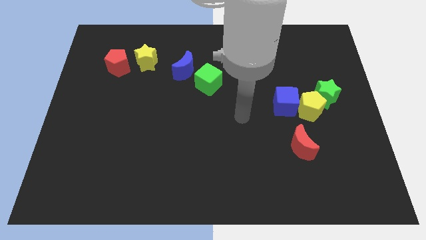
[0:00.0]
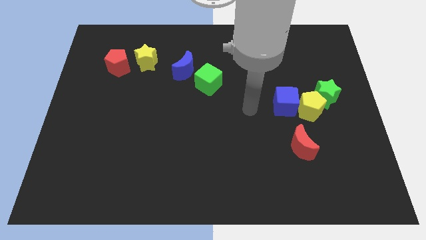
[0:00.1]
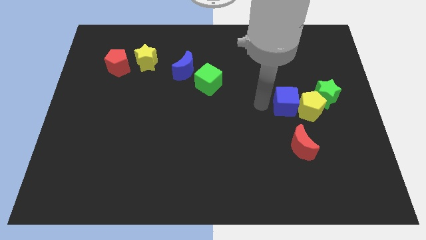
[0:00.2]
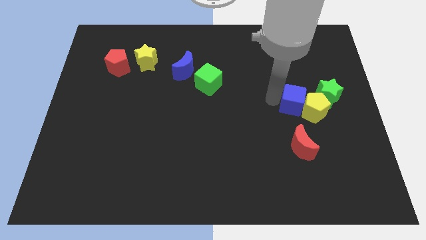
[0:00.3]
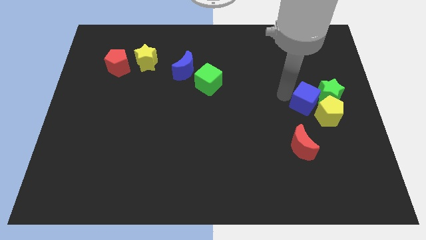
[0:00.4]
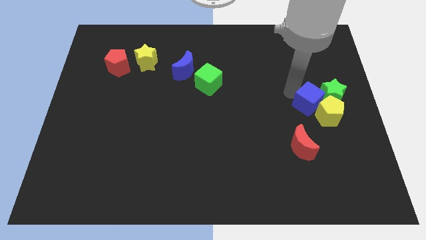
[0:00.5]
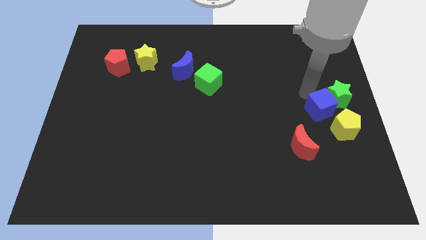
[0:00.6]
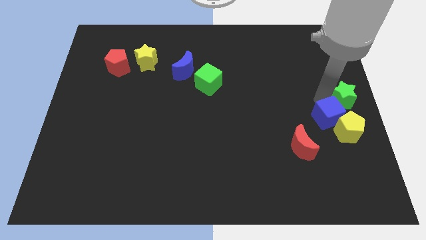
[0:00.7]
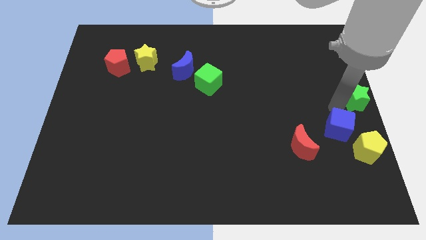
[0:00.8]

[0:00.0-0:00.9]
move the yellow pentagon away from the green star and blue cube

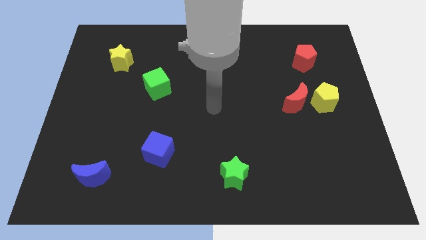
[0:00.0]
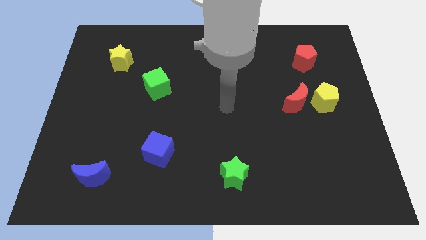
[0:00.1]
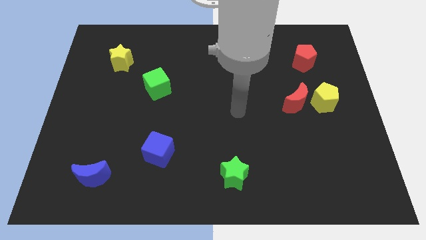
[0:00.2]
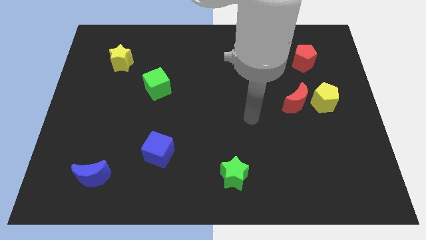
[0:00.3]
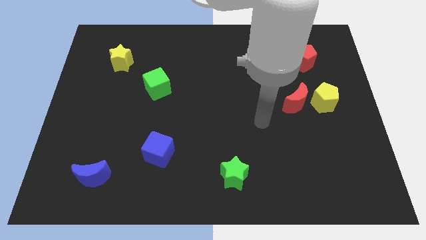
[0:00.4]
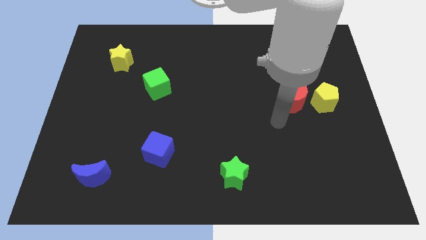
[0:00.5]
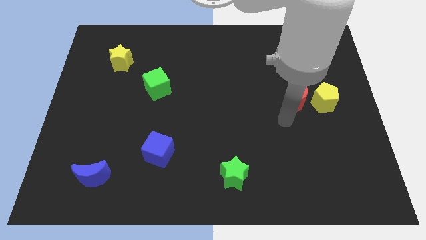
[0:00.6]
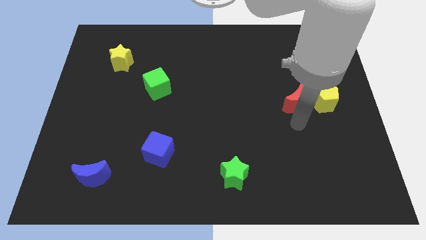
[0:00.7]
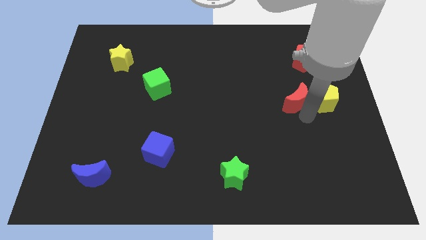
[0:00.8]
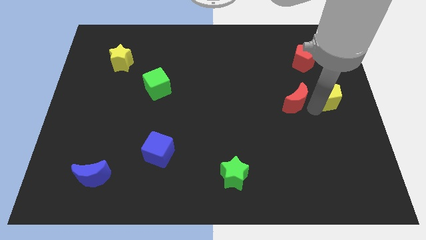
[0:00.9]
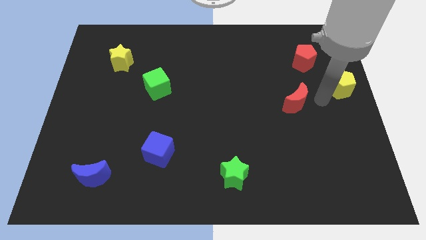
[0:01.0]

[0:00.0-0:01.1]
move the red moon away from the yellow pentagon

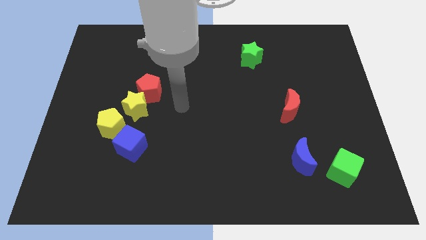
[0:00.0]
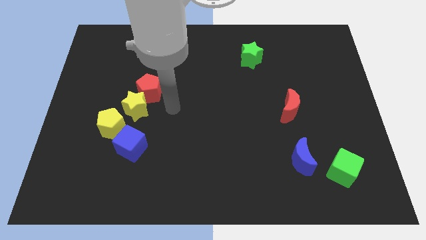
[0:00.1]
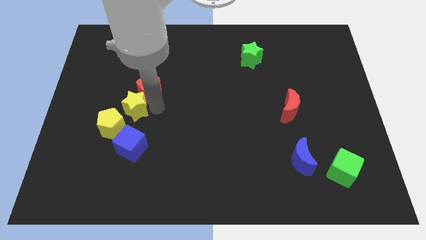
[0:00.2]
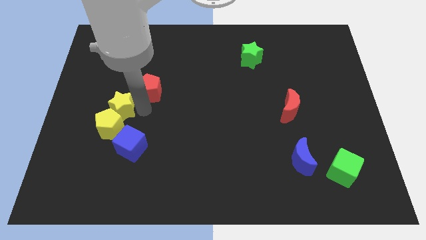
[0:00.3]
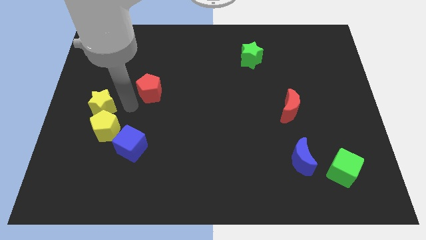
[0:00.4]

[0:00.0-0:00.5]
move the red pentagon away from the yellow star

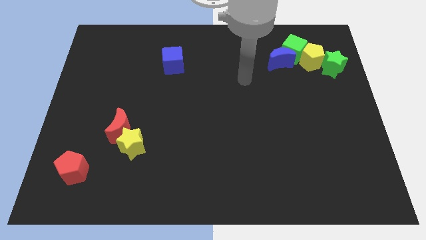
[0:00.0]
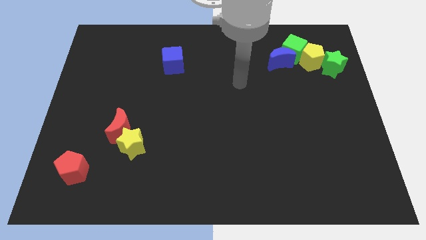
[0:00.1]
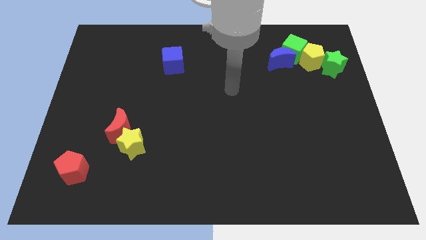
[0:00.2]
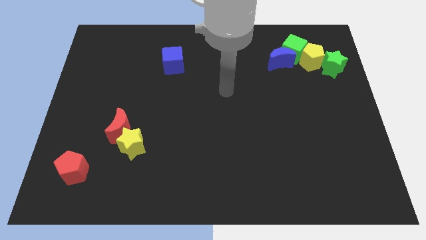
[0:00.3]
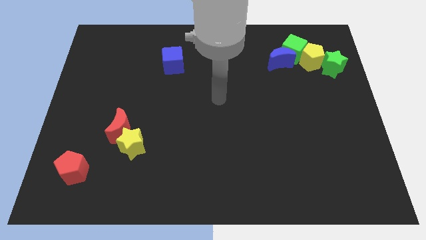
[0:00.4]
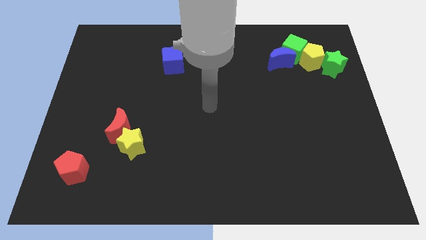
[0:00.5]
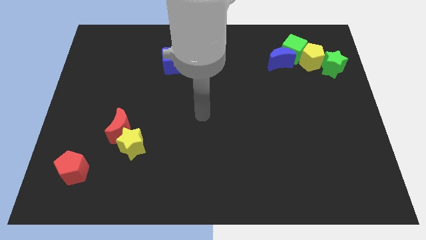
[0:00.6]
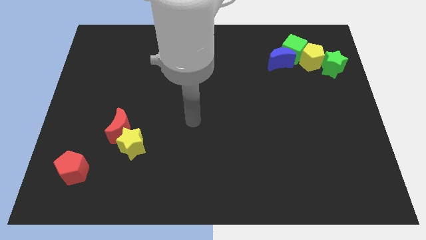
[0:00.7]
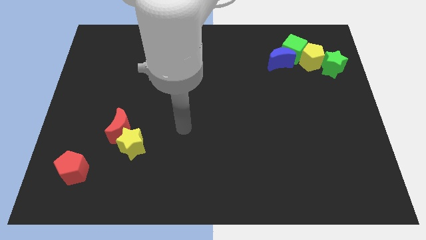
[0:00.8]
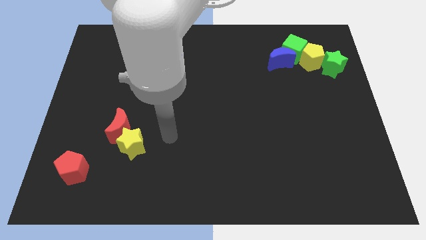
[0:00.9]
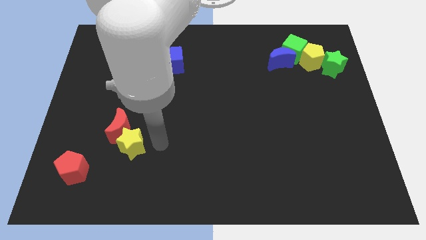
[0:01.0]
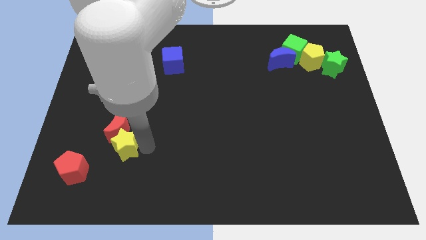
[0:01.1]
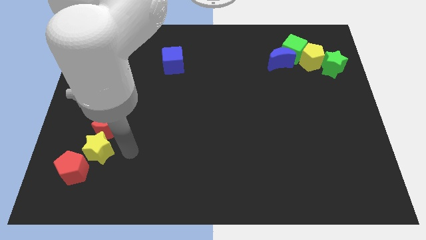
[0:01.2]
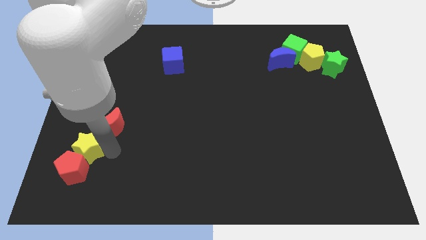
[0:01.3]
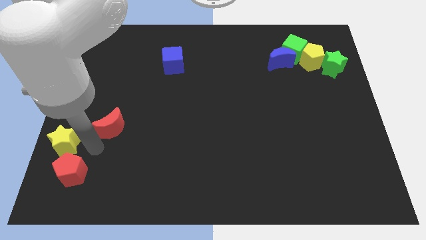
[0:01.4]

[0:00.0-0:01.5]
pull the red moon apart from the yellow star

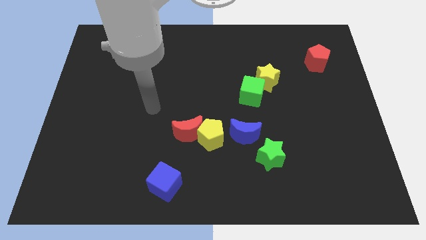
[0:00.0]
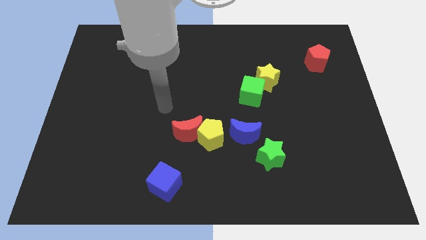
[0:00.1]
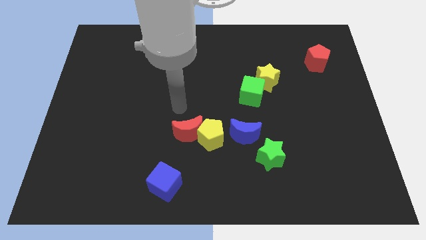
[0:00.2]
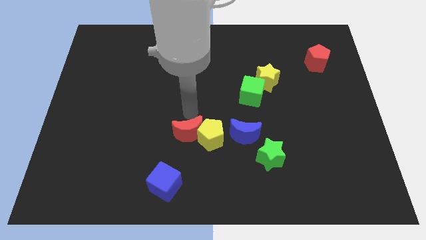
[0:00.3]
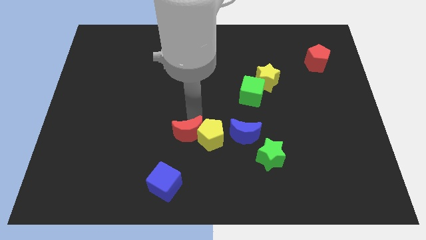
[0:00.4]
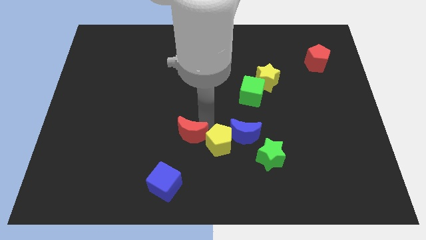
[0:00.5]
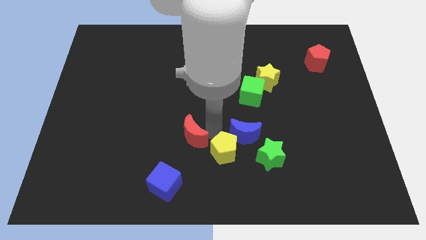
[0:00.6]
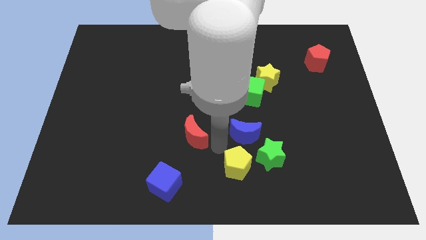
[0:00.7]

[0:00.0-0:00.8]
pull the red moon apart from the yellow pentagon

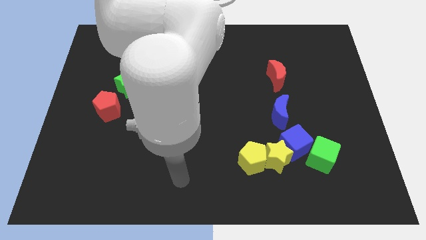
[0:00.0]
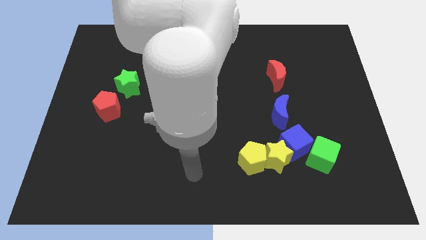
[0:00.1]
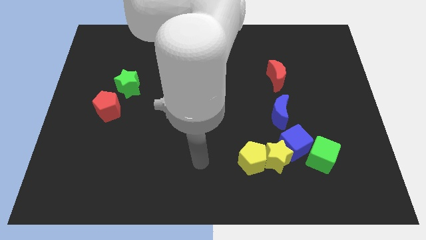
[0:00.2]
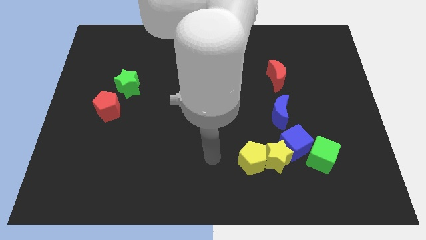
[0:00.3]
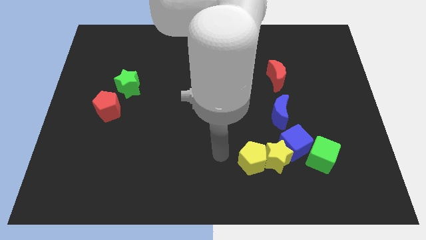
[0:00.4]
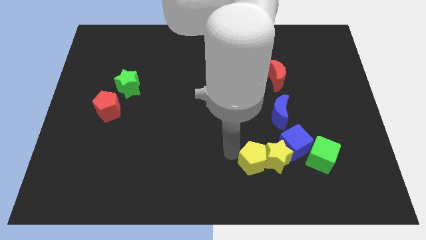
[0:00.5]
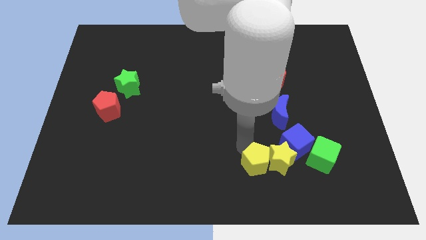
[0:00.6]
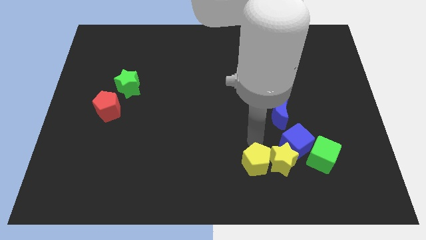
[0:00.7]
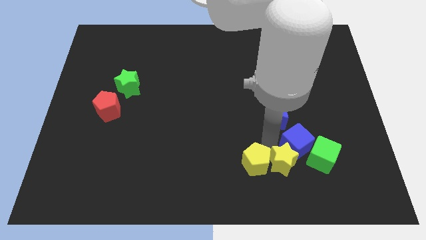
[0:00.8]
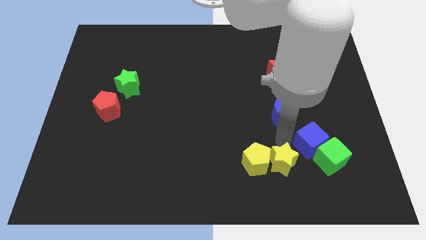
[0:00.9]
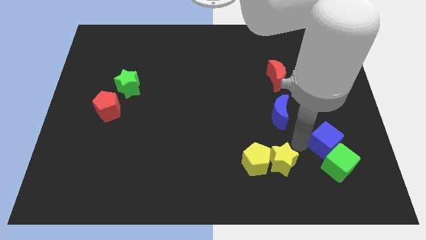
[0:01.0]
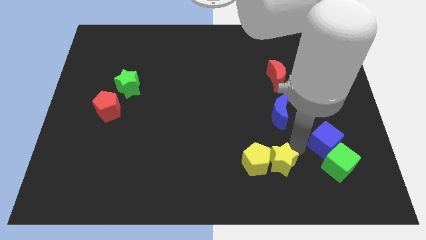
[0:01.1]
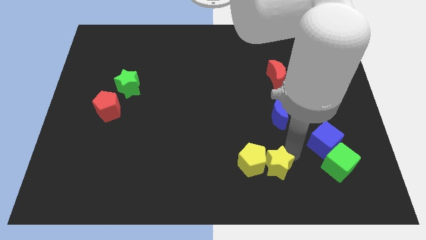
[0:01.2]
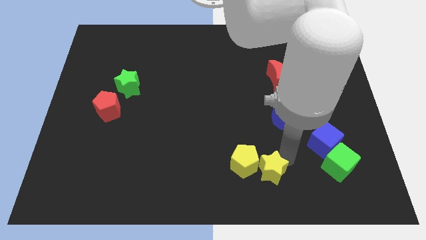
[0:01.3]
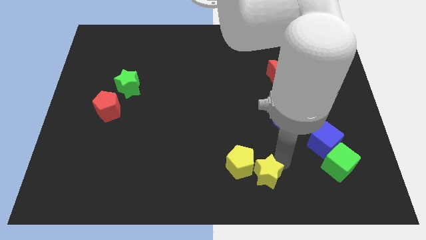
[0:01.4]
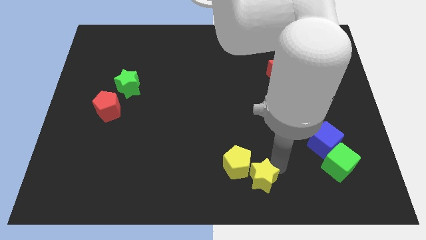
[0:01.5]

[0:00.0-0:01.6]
move the yellow star away from the group

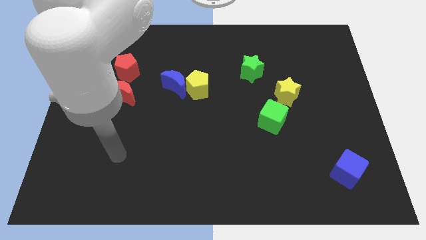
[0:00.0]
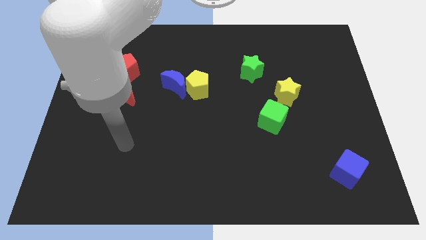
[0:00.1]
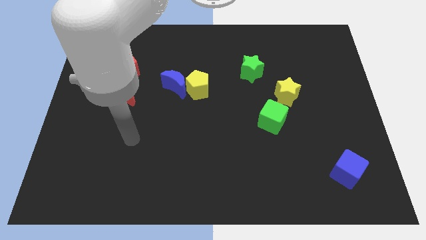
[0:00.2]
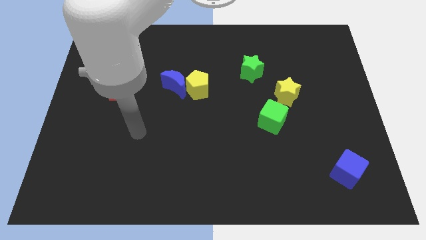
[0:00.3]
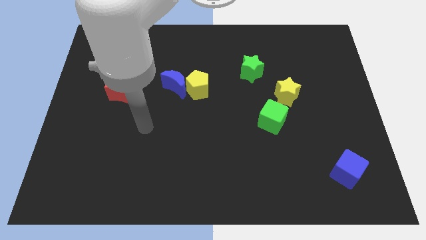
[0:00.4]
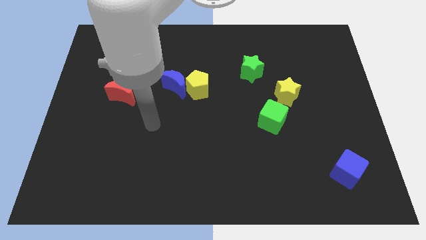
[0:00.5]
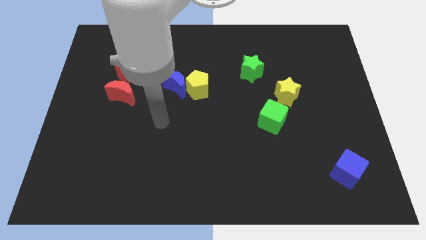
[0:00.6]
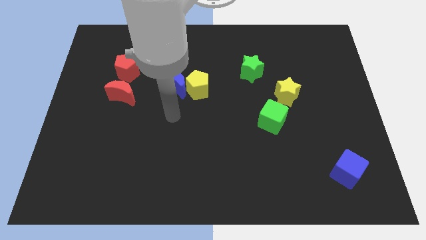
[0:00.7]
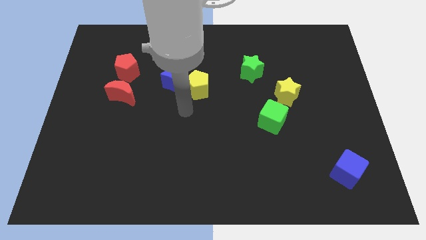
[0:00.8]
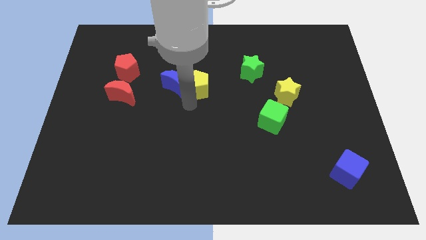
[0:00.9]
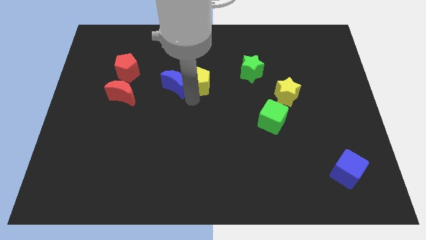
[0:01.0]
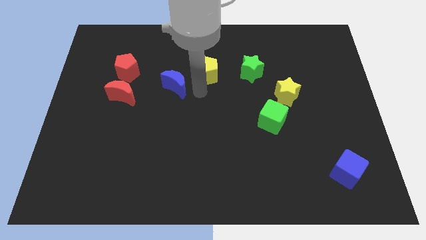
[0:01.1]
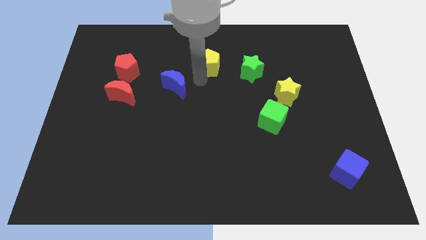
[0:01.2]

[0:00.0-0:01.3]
pull the blue moon apart from the yellow pentagon

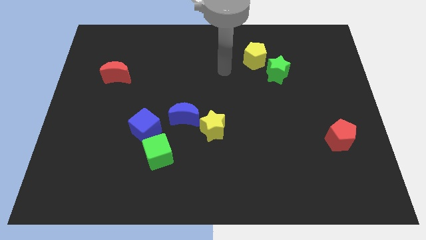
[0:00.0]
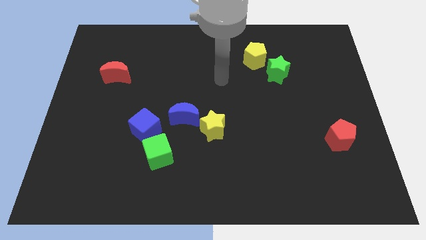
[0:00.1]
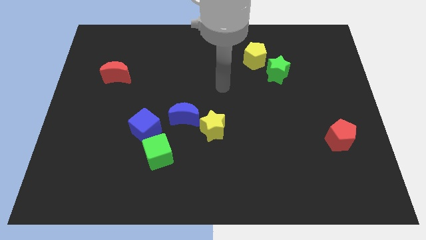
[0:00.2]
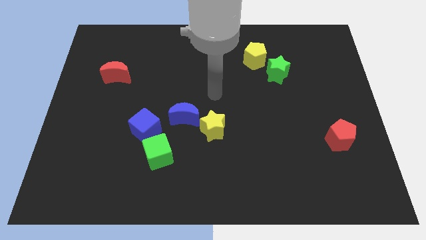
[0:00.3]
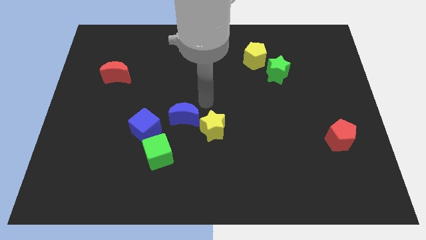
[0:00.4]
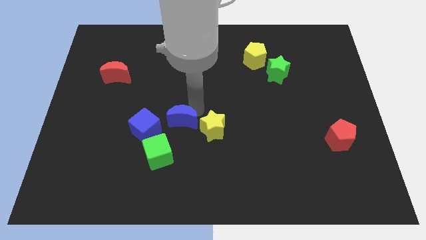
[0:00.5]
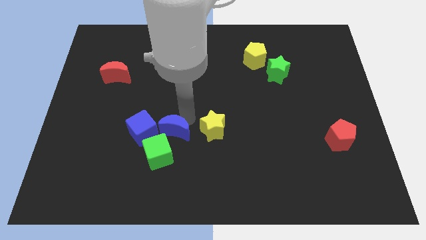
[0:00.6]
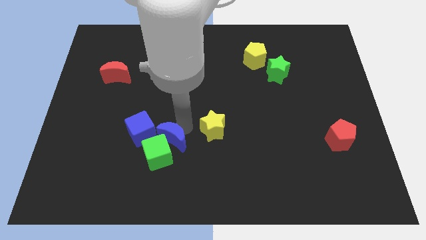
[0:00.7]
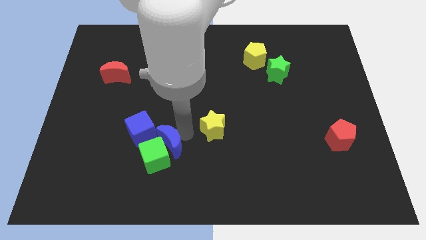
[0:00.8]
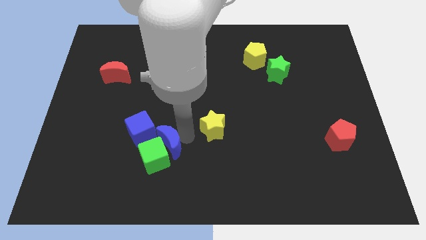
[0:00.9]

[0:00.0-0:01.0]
separate the yellow star from the blue moon

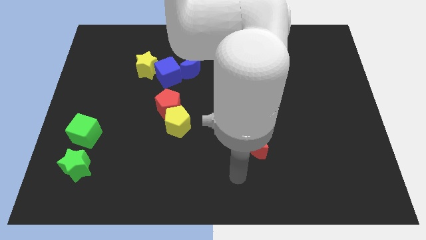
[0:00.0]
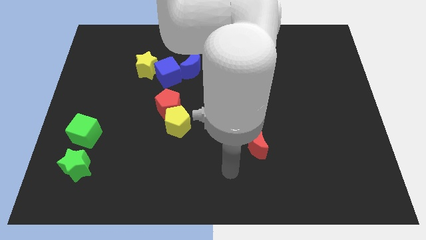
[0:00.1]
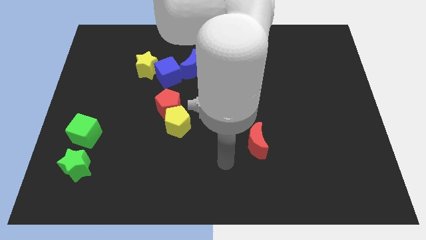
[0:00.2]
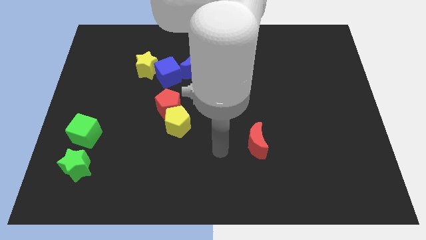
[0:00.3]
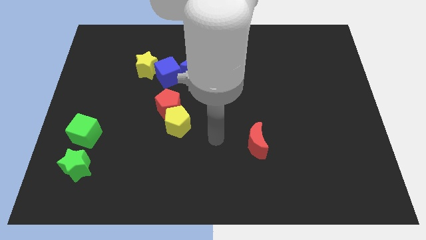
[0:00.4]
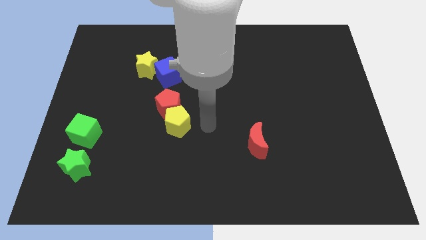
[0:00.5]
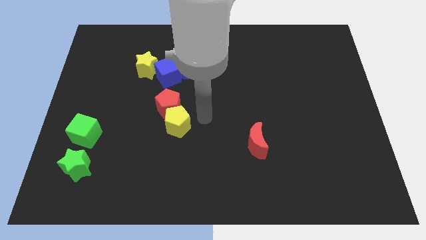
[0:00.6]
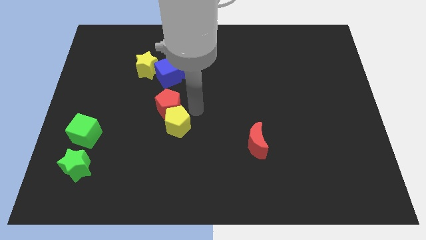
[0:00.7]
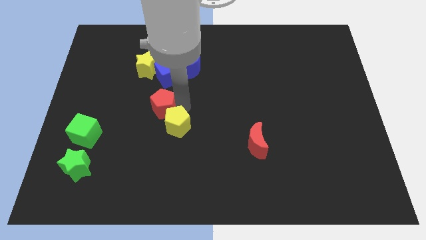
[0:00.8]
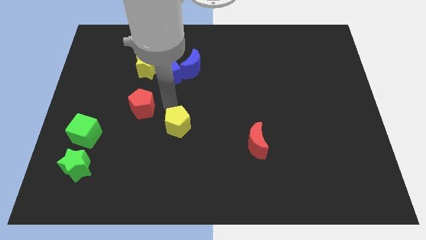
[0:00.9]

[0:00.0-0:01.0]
move the yellow pentagon away from the red pentagon
